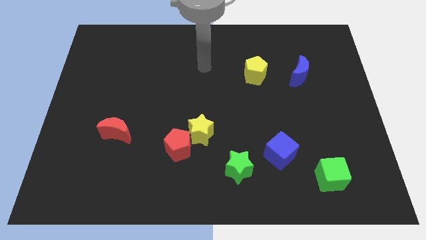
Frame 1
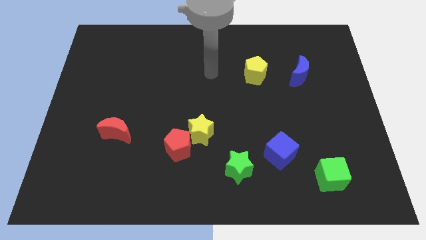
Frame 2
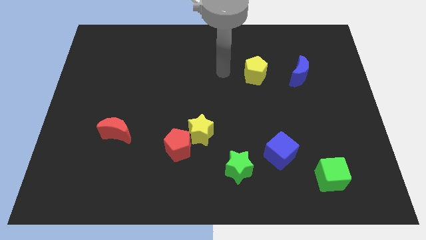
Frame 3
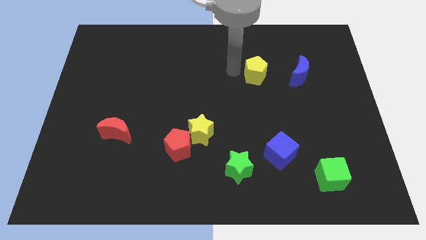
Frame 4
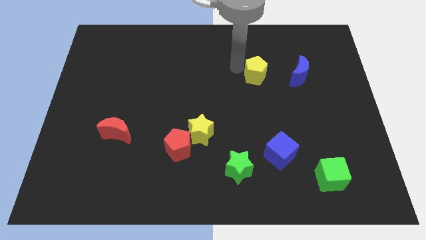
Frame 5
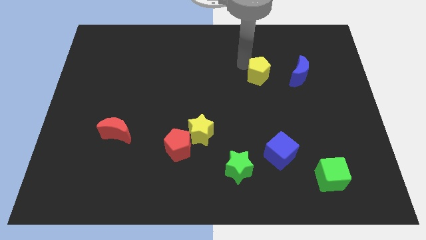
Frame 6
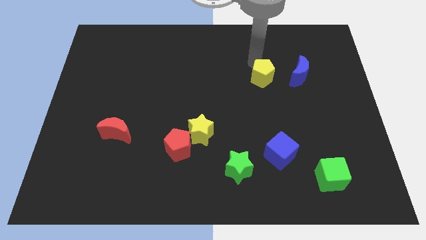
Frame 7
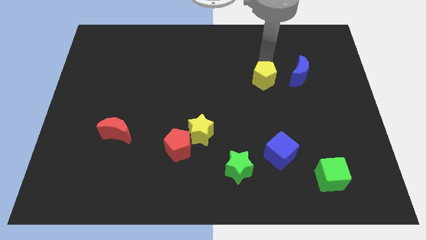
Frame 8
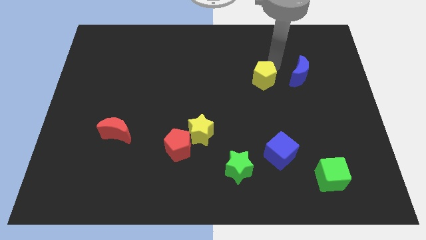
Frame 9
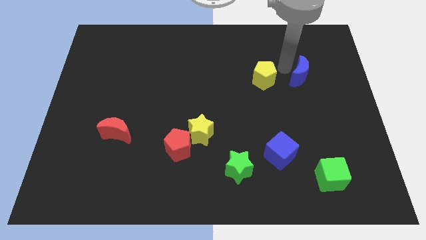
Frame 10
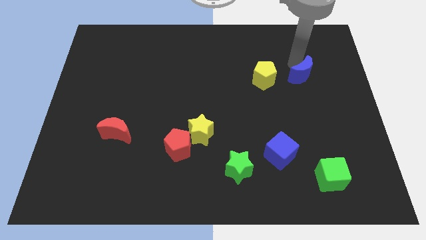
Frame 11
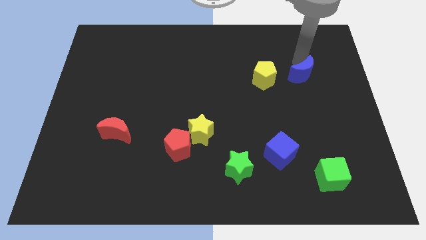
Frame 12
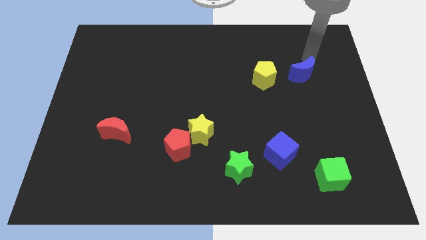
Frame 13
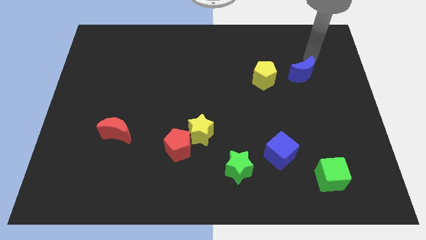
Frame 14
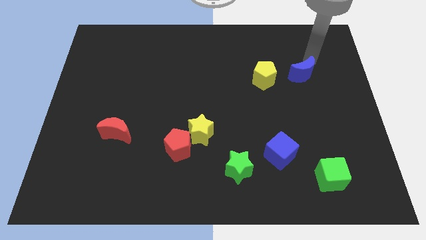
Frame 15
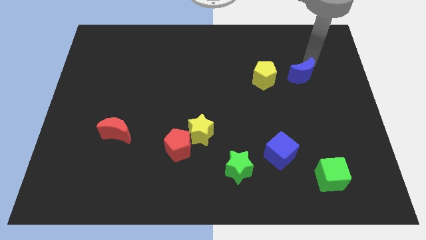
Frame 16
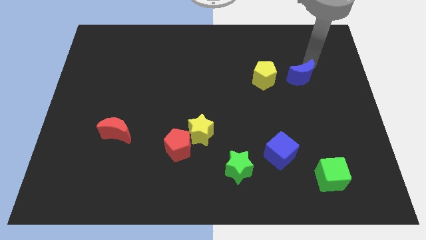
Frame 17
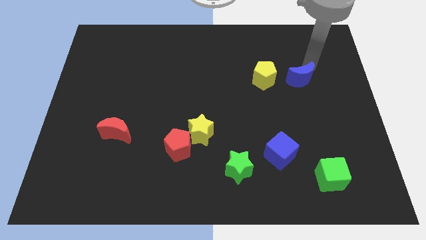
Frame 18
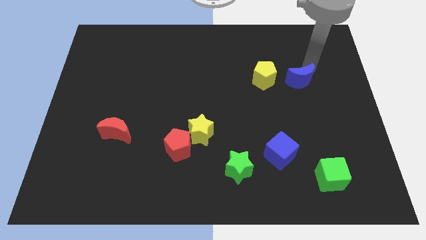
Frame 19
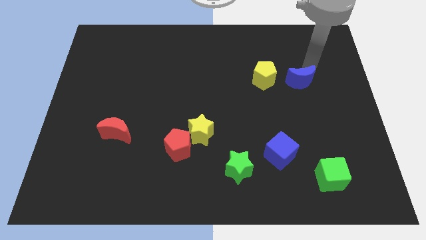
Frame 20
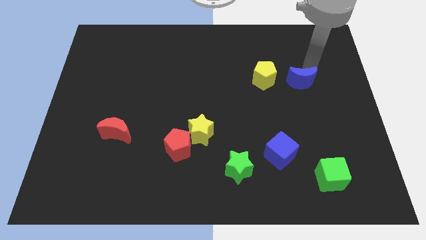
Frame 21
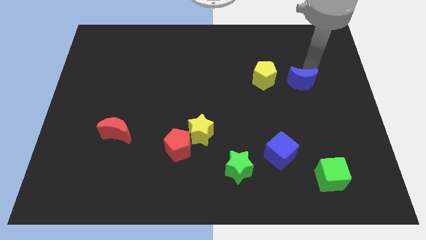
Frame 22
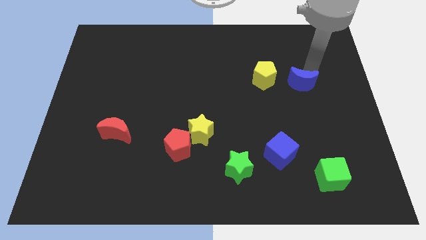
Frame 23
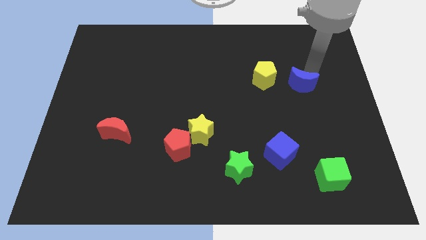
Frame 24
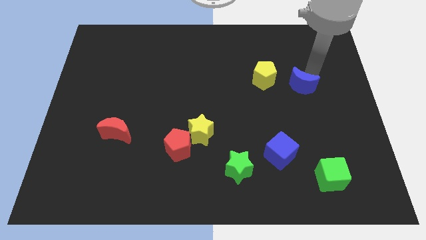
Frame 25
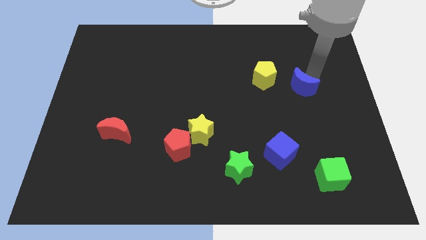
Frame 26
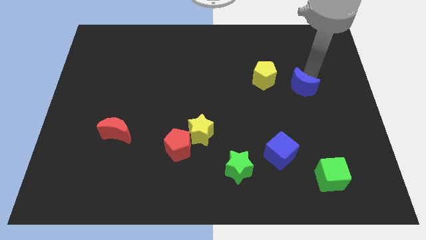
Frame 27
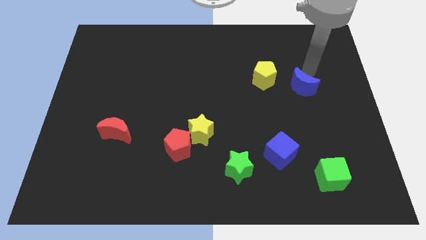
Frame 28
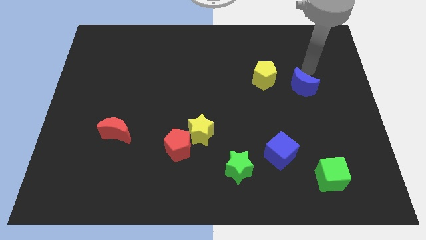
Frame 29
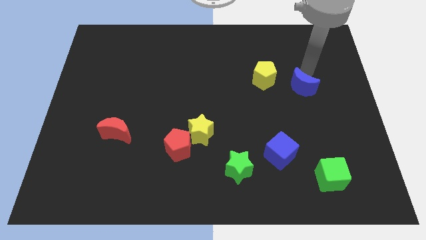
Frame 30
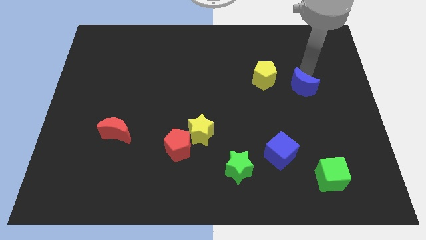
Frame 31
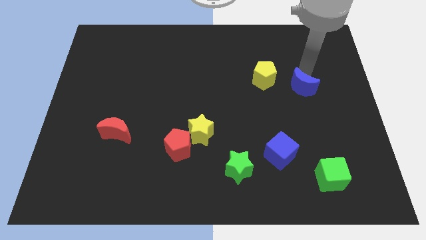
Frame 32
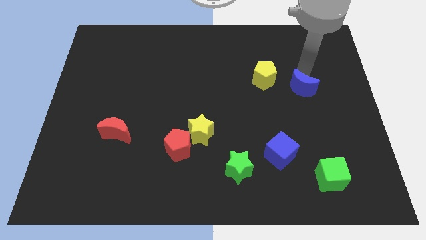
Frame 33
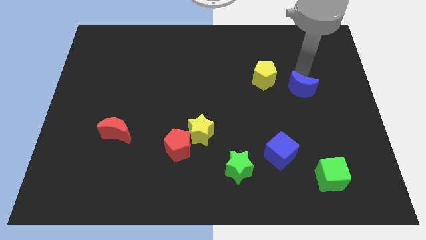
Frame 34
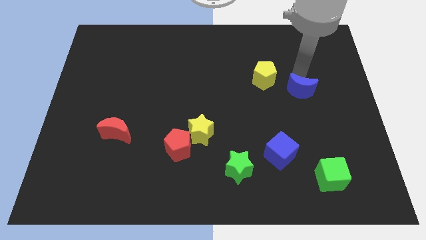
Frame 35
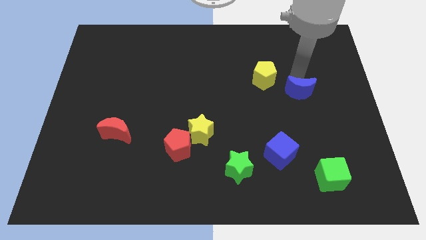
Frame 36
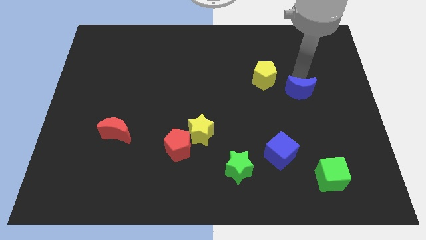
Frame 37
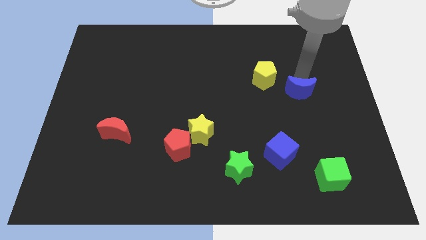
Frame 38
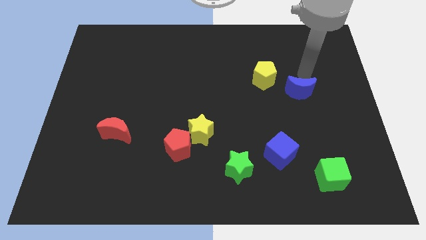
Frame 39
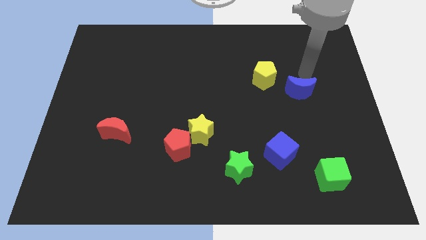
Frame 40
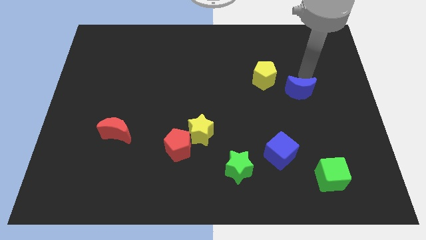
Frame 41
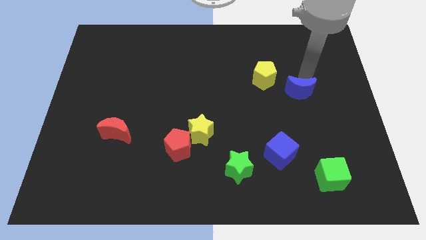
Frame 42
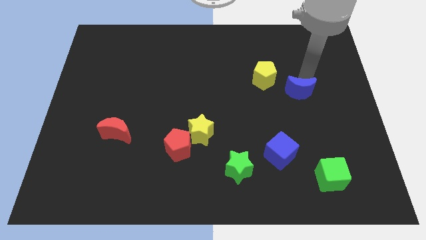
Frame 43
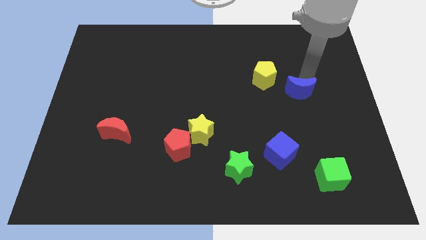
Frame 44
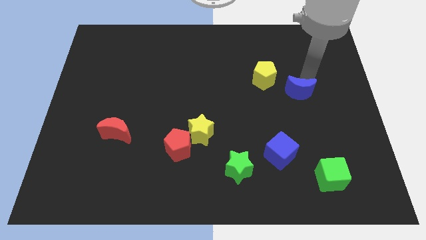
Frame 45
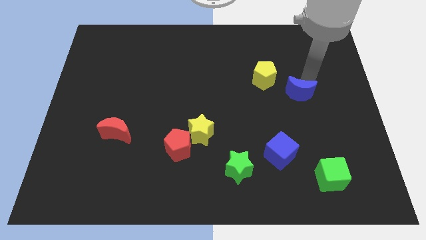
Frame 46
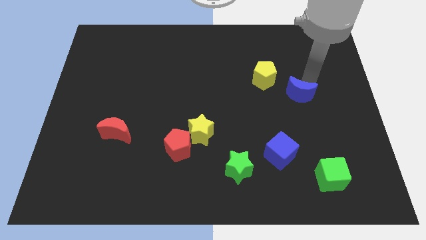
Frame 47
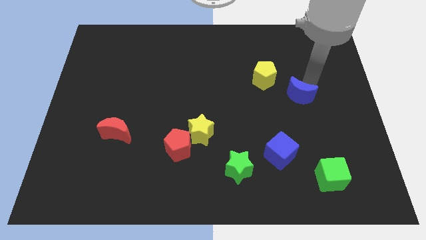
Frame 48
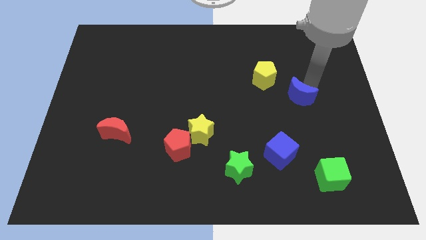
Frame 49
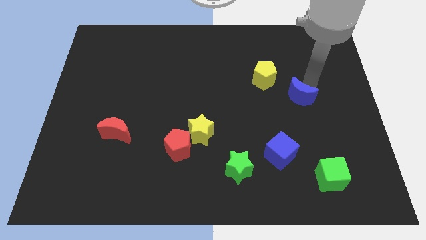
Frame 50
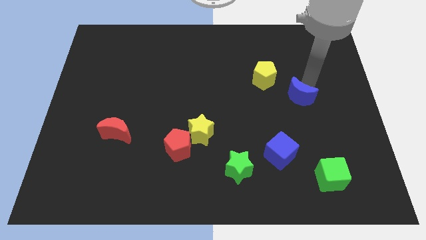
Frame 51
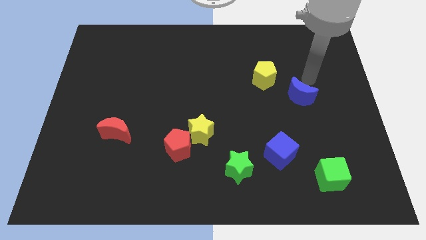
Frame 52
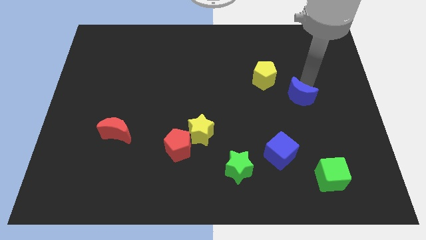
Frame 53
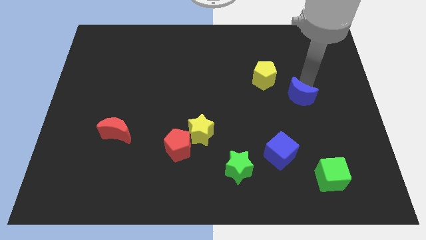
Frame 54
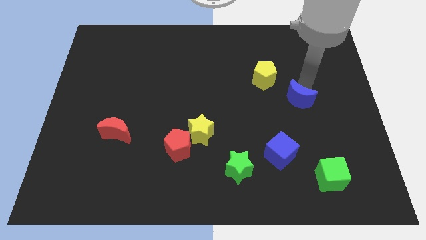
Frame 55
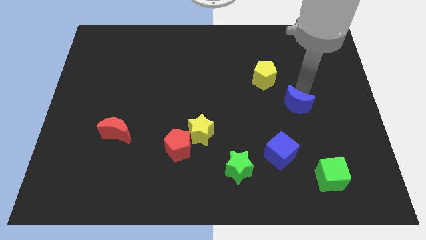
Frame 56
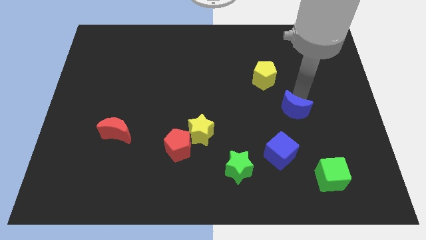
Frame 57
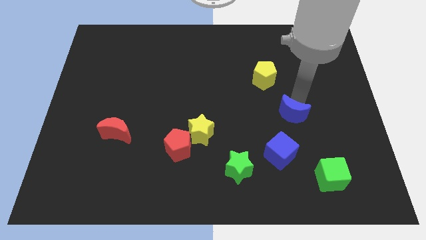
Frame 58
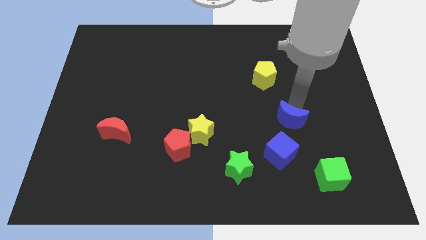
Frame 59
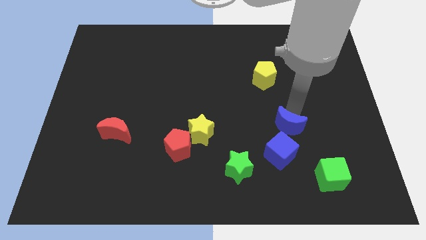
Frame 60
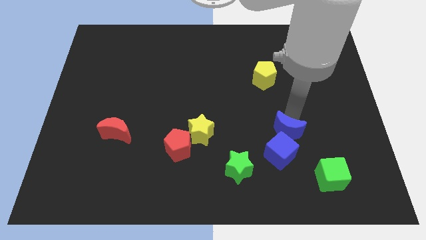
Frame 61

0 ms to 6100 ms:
push the blue moon to the blue cube
